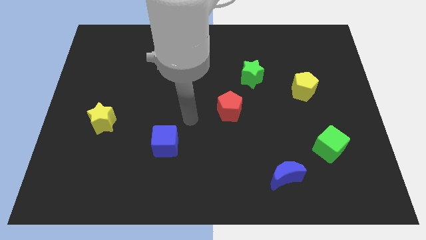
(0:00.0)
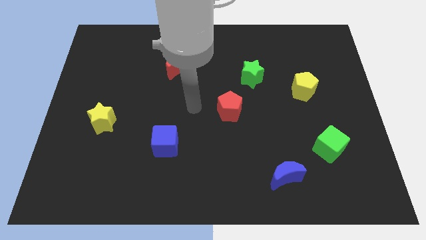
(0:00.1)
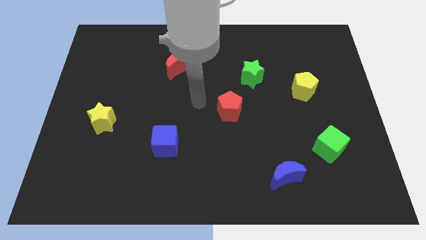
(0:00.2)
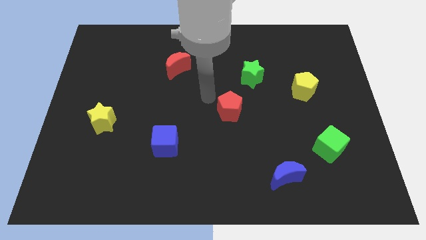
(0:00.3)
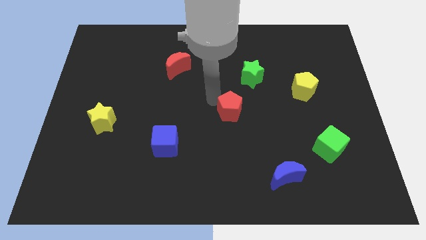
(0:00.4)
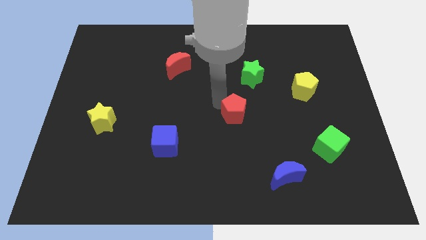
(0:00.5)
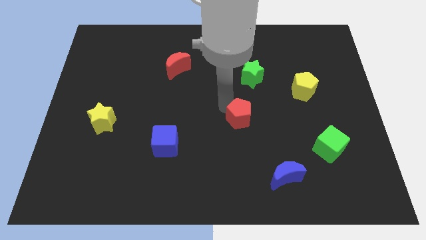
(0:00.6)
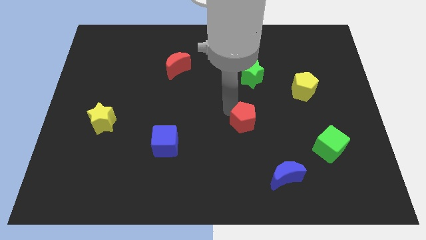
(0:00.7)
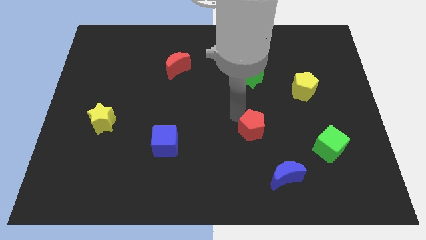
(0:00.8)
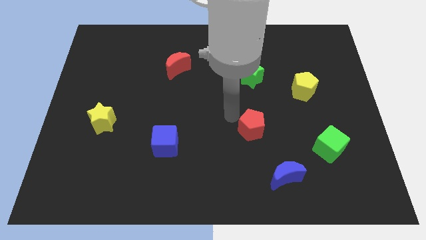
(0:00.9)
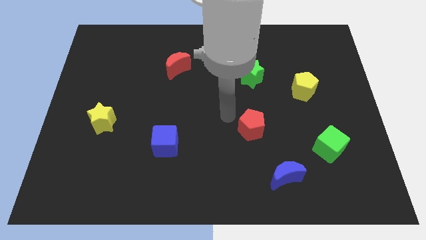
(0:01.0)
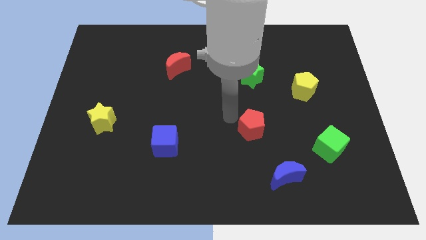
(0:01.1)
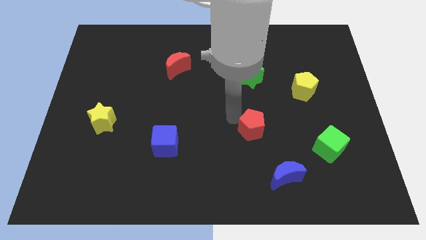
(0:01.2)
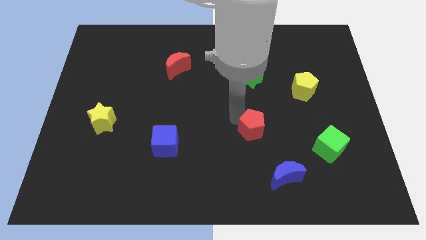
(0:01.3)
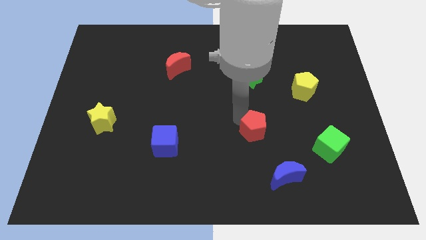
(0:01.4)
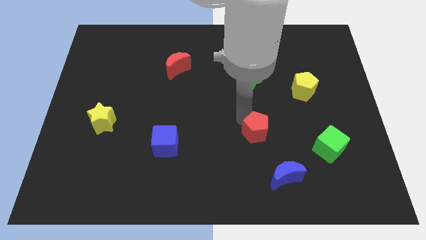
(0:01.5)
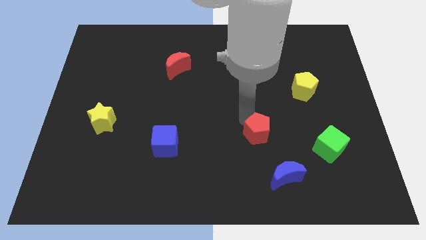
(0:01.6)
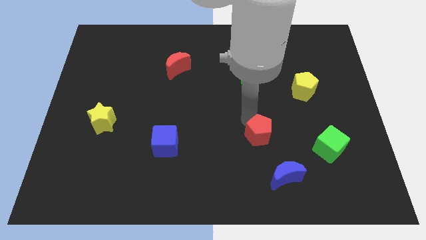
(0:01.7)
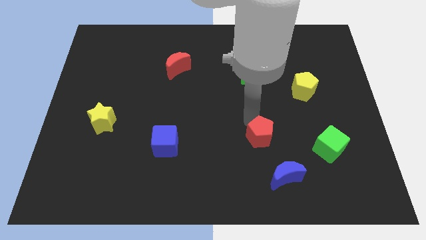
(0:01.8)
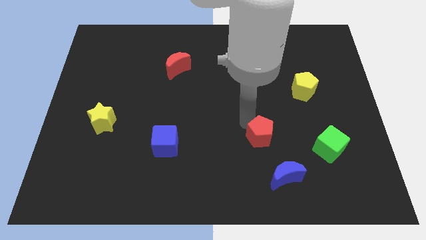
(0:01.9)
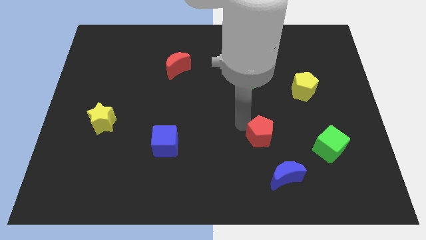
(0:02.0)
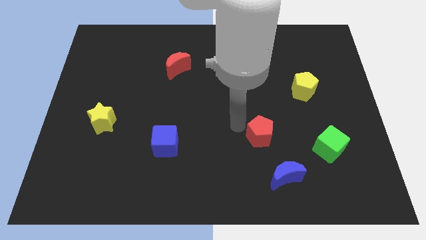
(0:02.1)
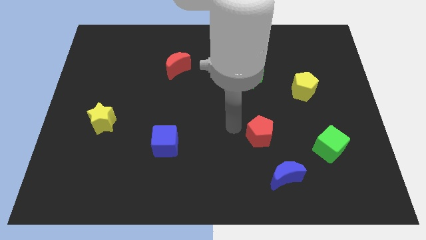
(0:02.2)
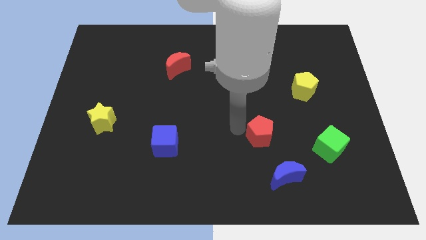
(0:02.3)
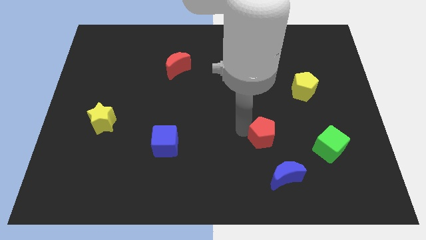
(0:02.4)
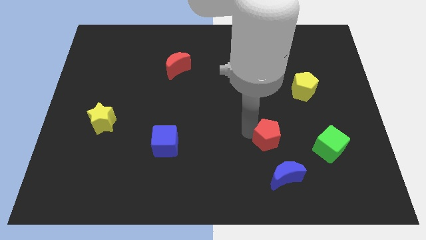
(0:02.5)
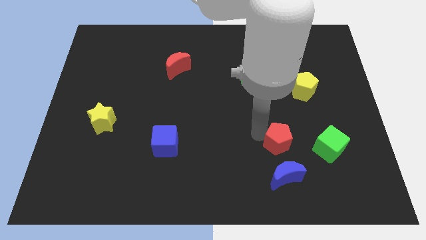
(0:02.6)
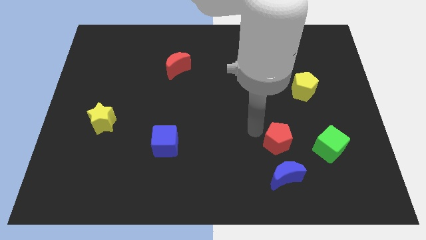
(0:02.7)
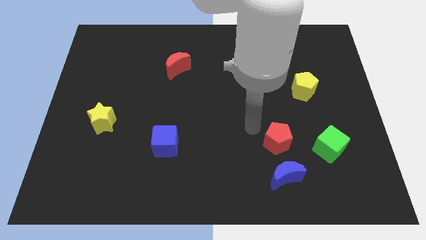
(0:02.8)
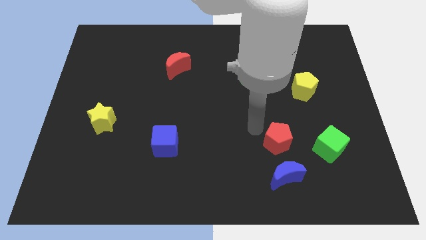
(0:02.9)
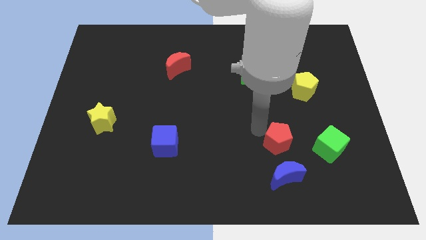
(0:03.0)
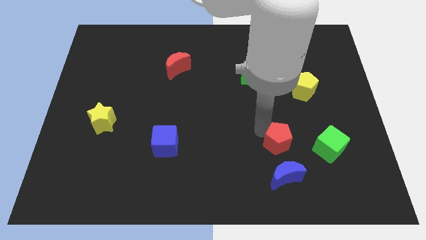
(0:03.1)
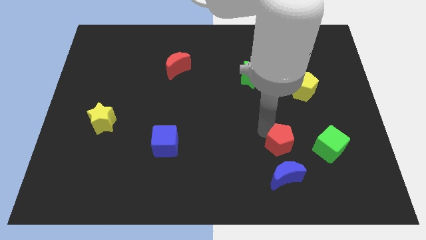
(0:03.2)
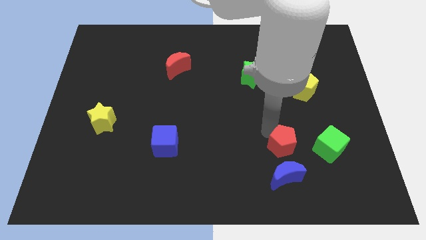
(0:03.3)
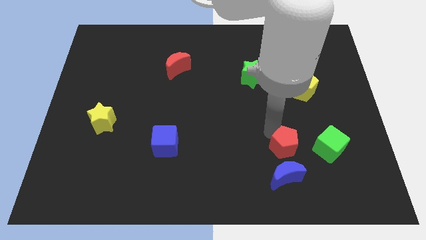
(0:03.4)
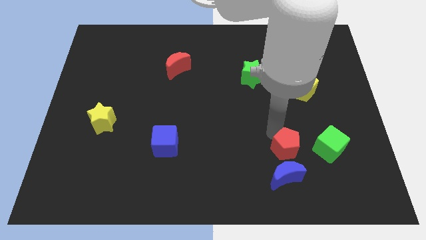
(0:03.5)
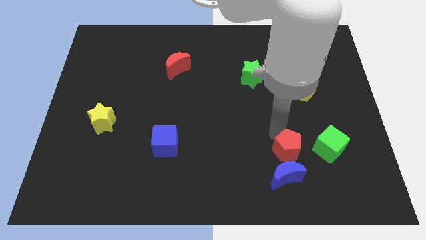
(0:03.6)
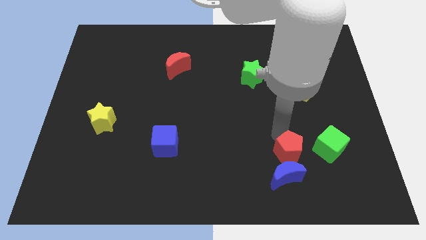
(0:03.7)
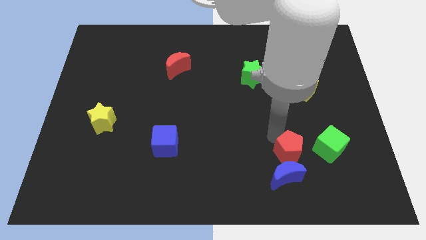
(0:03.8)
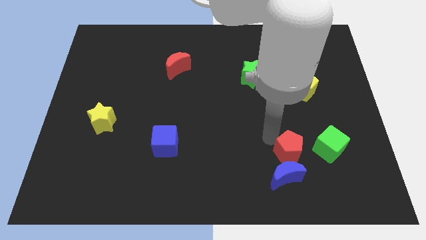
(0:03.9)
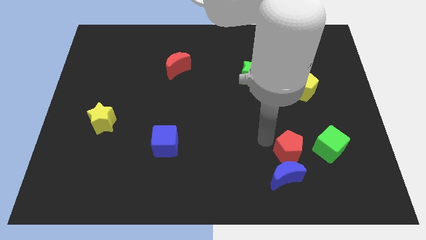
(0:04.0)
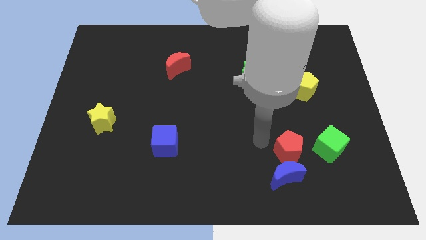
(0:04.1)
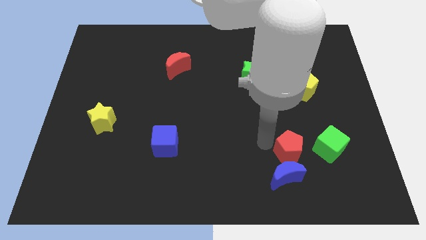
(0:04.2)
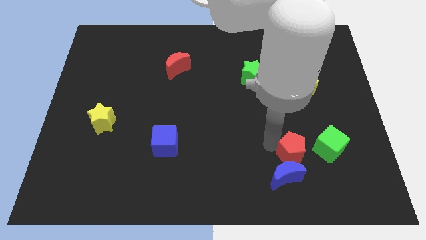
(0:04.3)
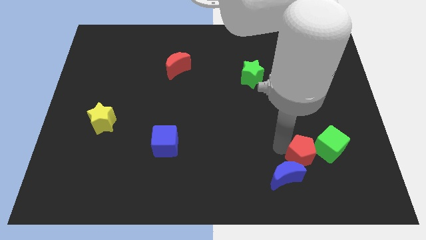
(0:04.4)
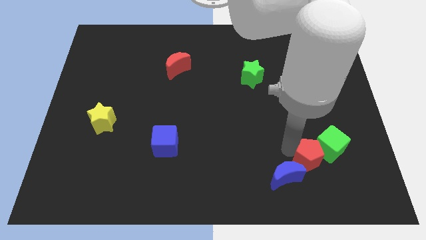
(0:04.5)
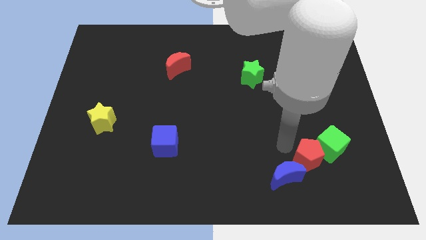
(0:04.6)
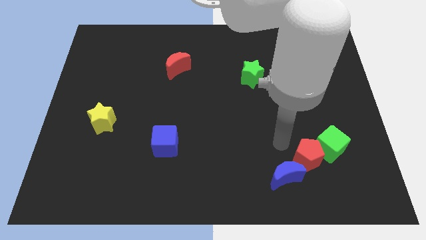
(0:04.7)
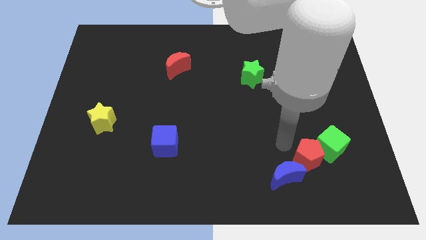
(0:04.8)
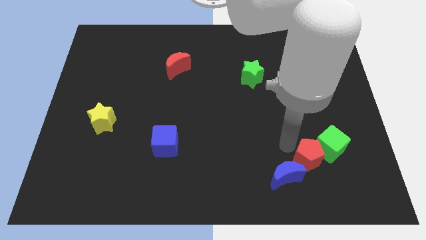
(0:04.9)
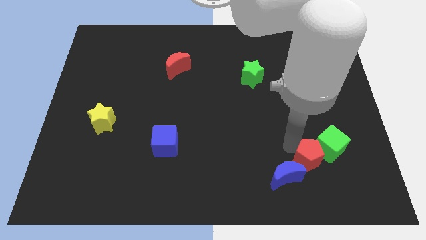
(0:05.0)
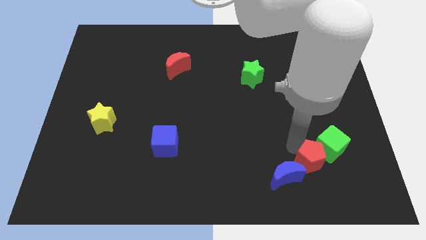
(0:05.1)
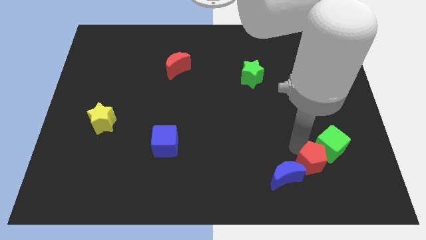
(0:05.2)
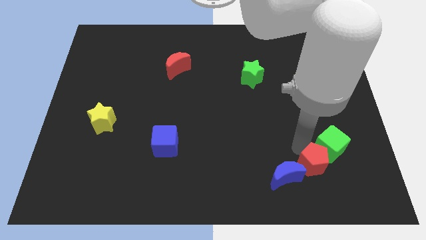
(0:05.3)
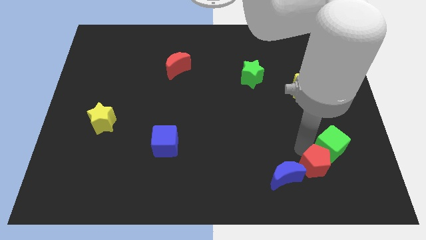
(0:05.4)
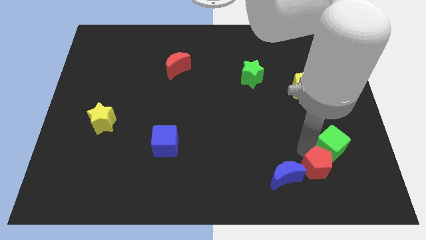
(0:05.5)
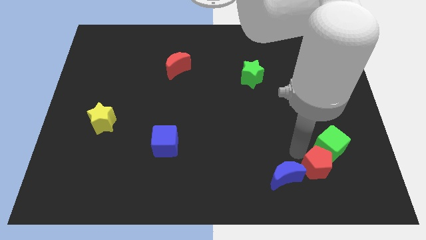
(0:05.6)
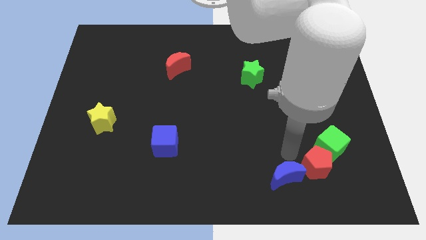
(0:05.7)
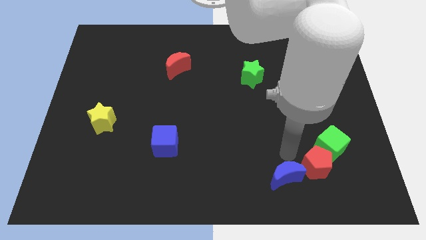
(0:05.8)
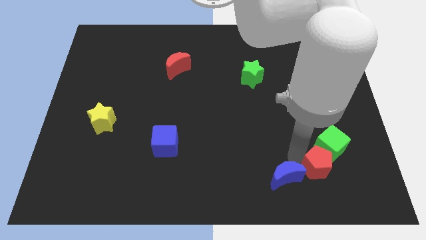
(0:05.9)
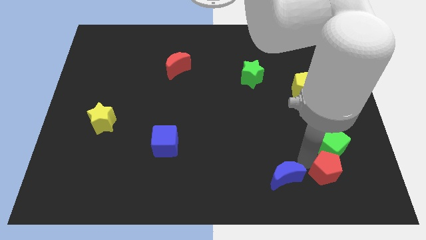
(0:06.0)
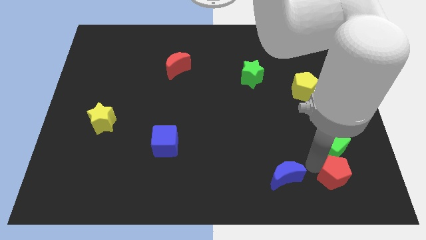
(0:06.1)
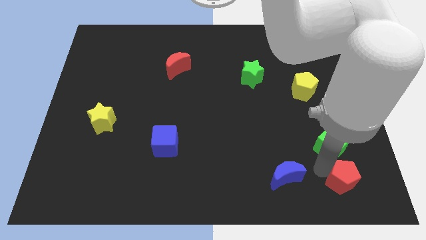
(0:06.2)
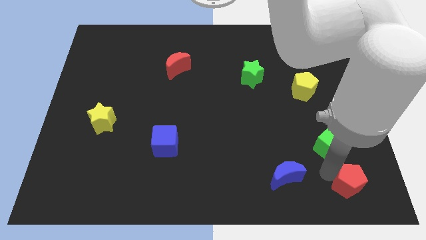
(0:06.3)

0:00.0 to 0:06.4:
move the red pentagon to the bottom right corner
